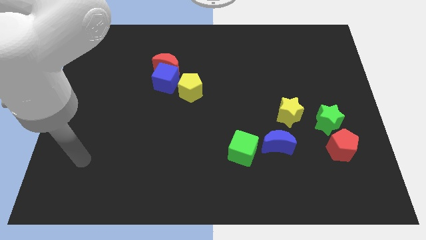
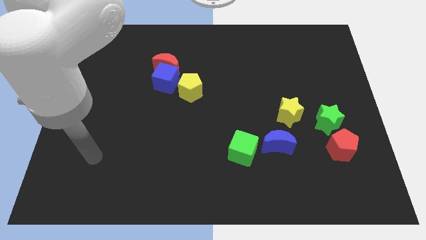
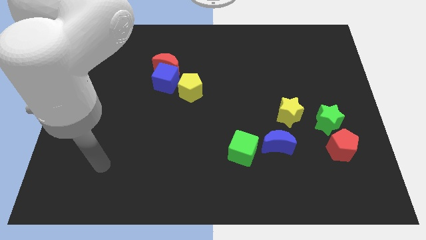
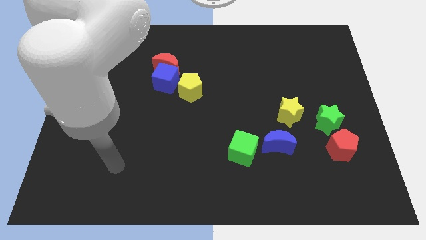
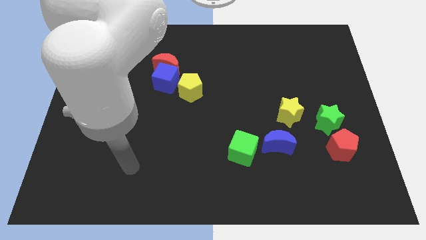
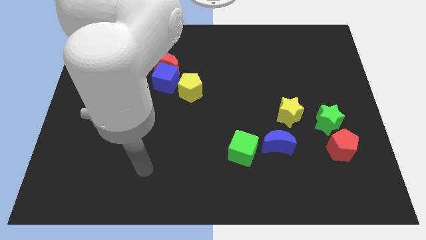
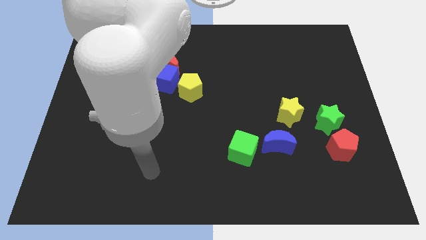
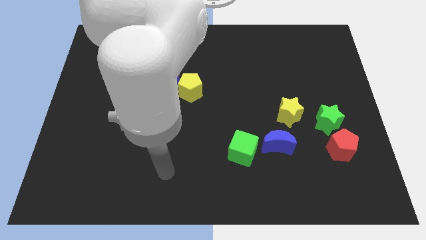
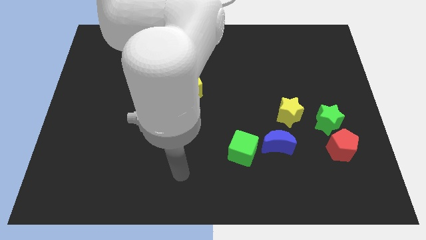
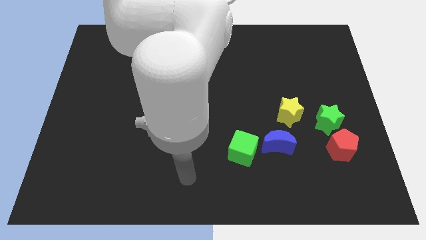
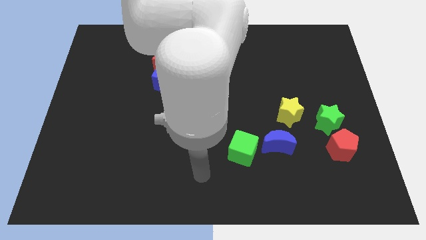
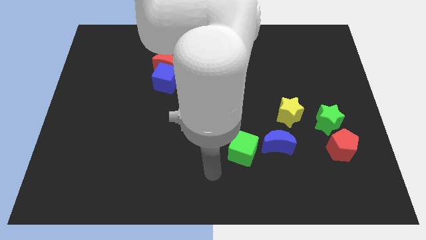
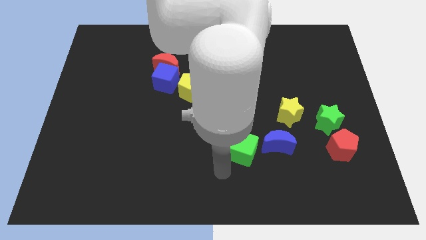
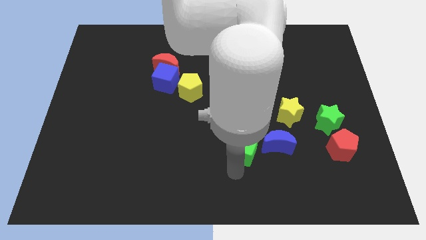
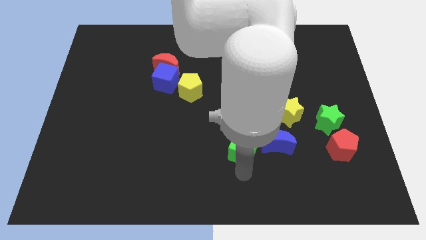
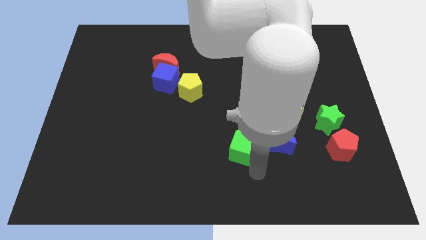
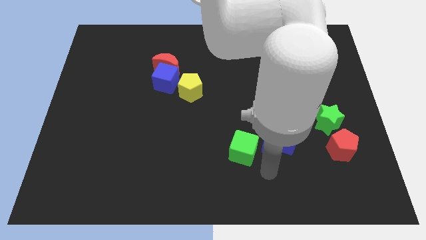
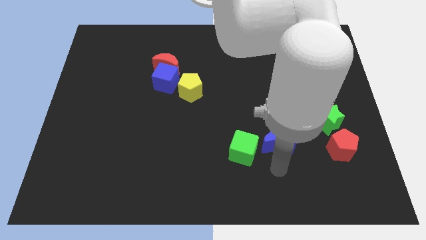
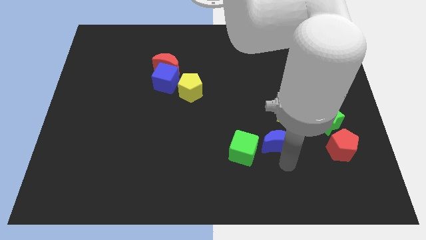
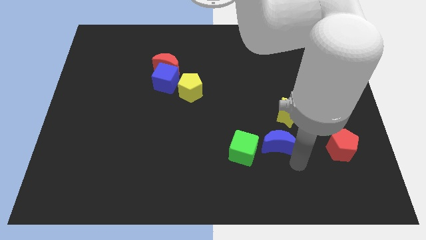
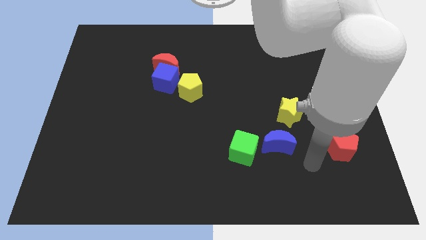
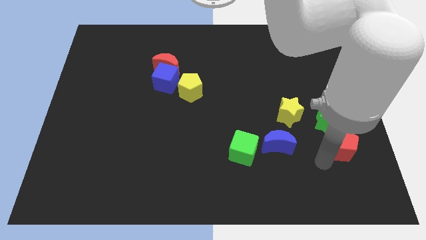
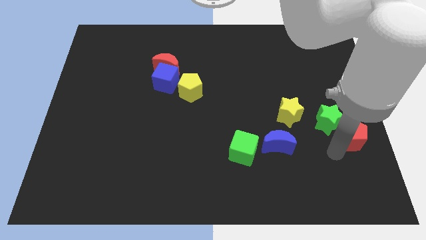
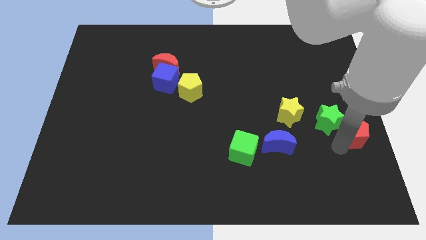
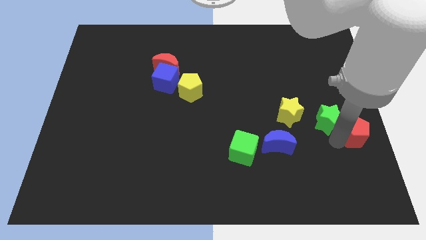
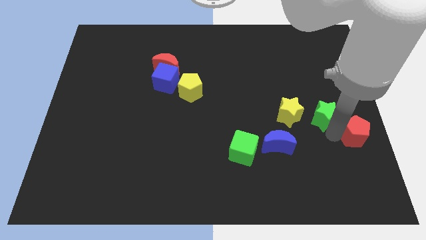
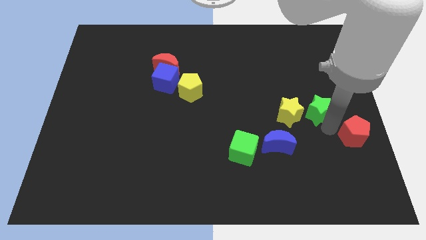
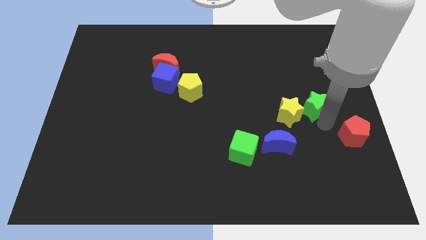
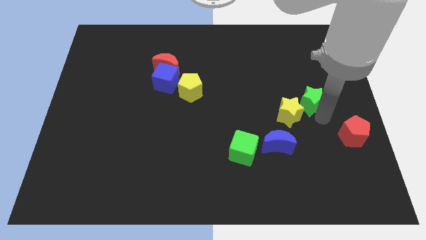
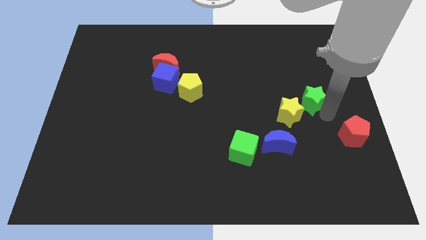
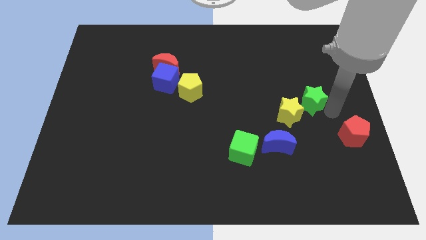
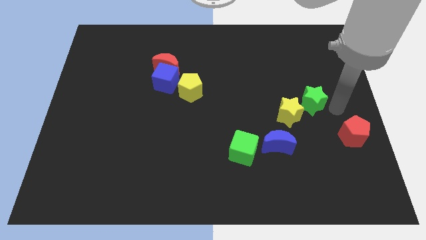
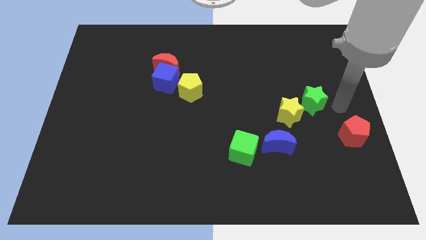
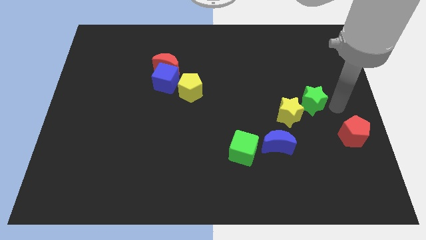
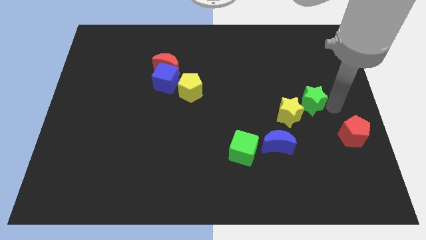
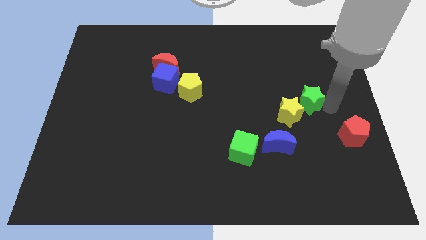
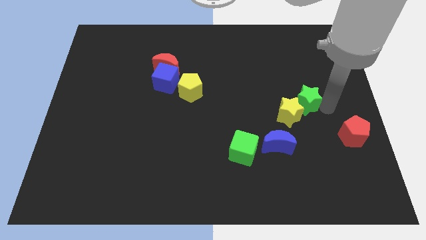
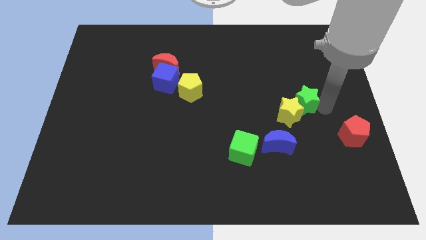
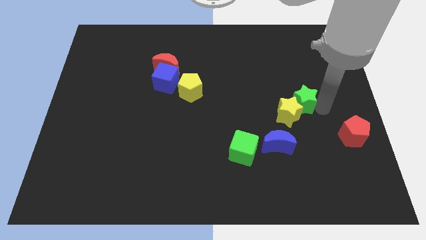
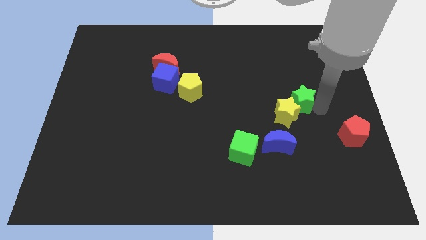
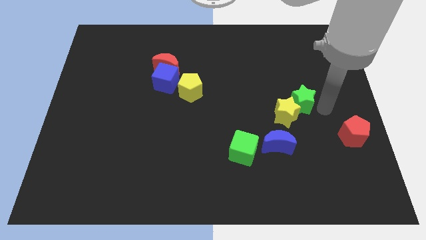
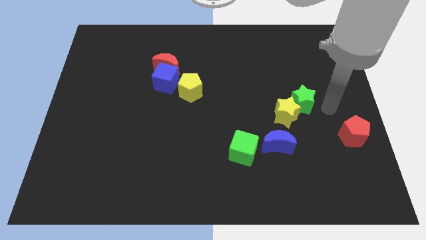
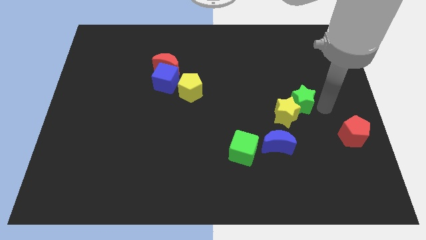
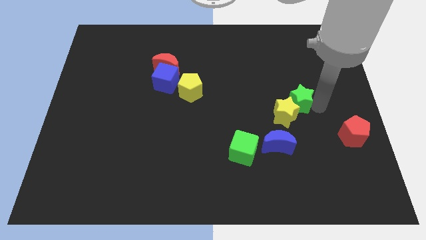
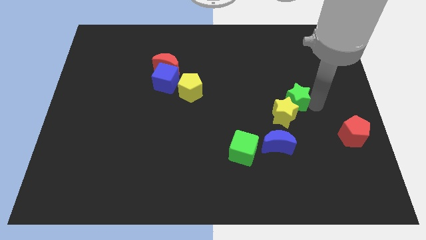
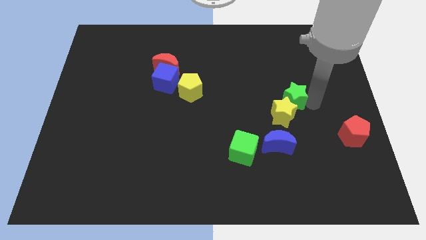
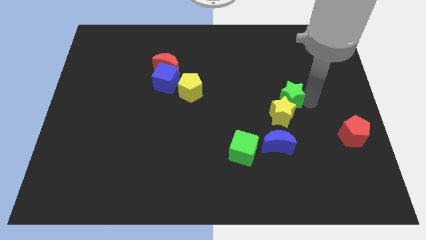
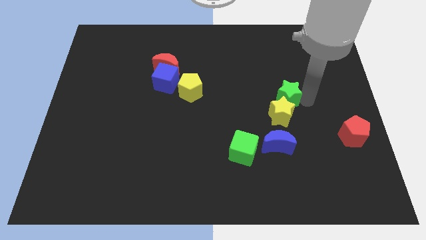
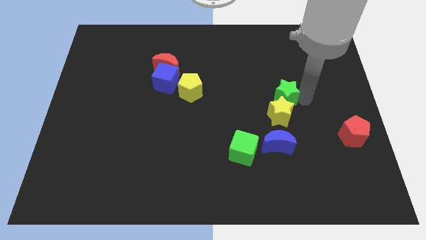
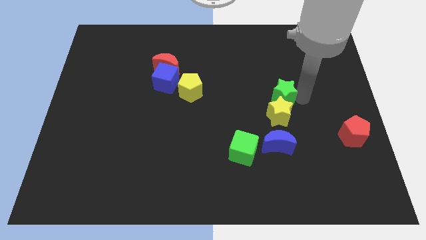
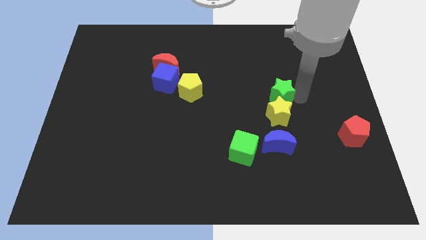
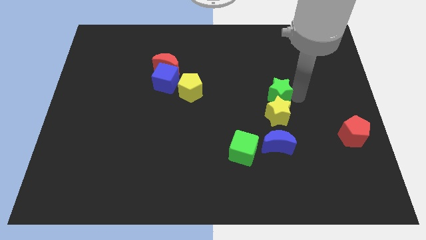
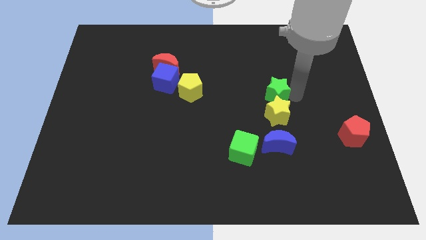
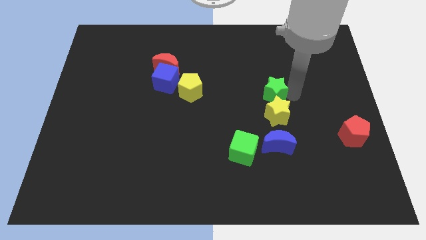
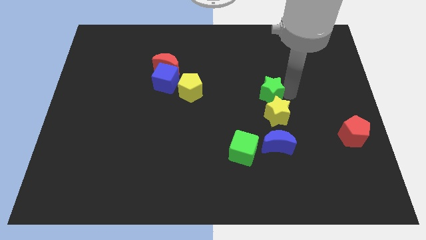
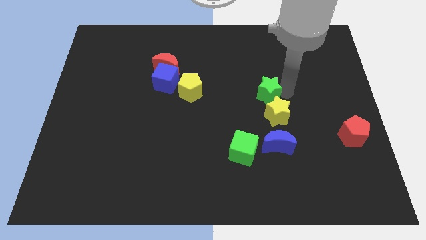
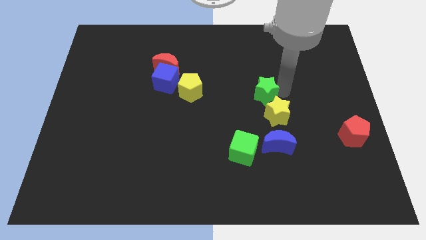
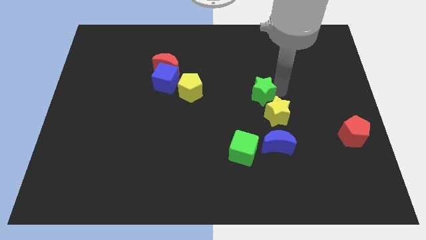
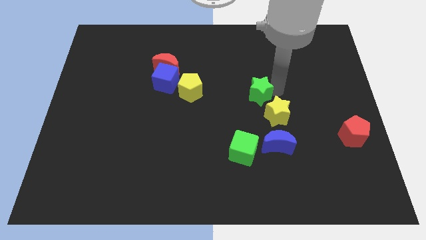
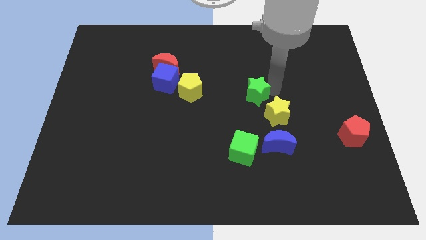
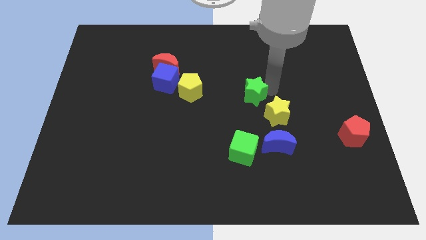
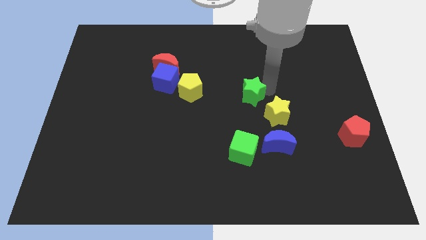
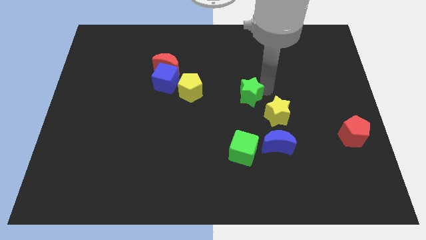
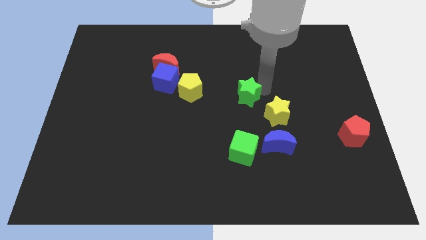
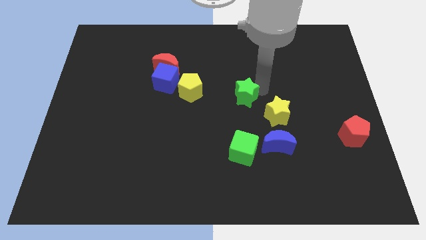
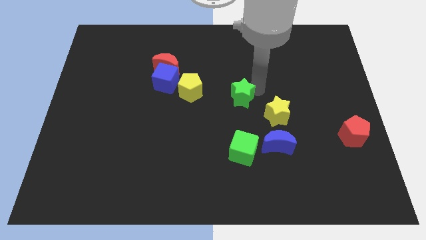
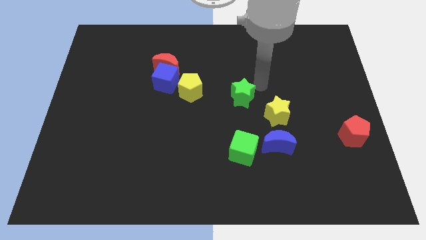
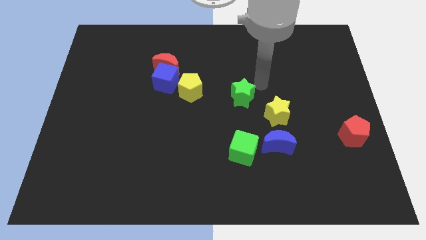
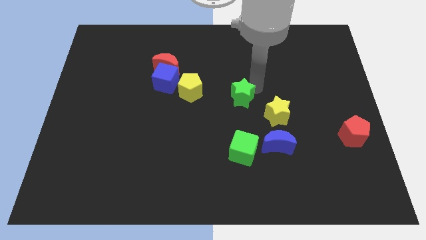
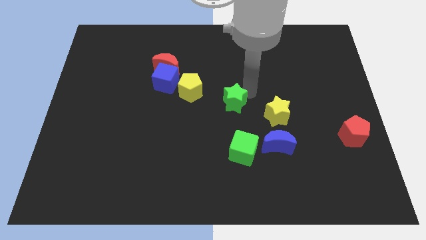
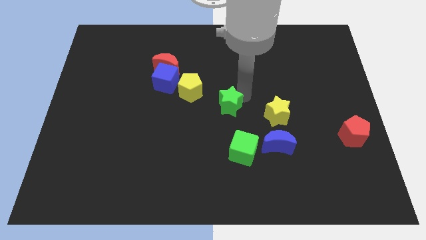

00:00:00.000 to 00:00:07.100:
slide the green star left

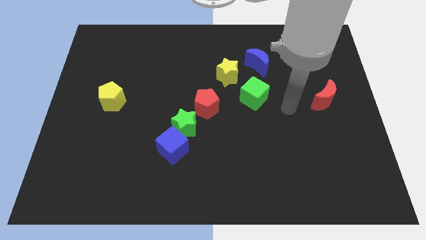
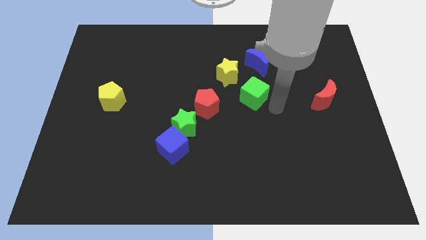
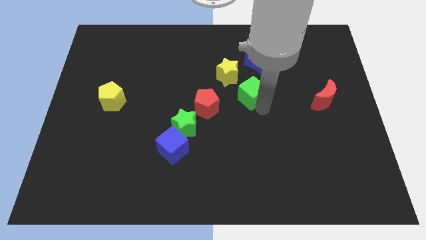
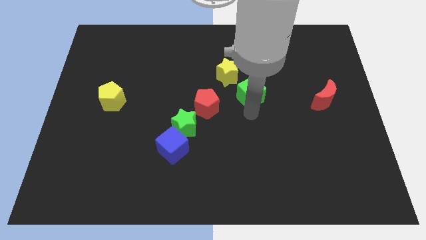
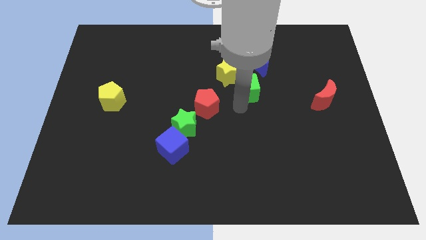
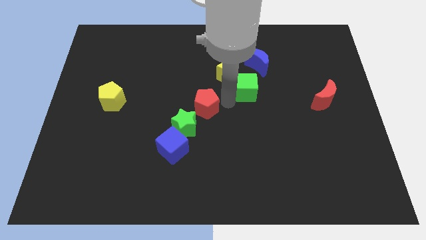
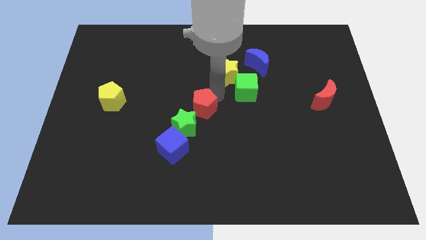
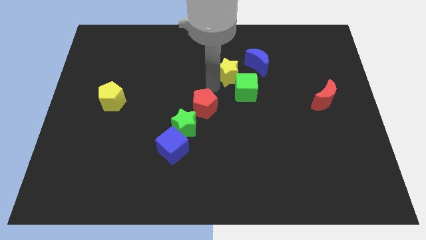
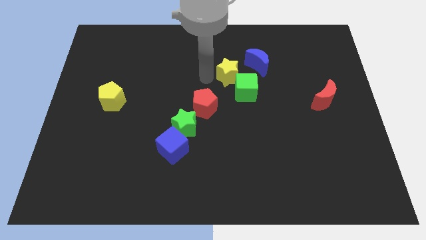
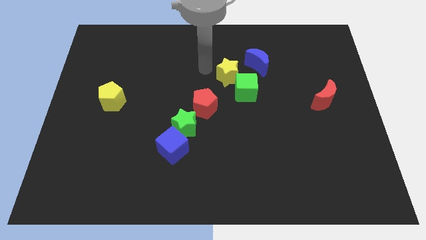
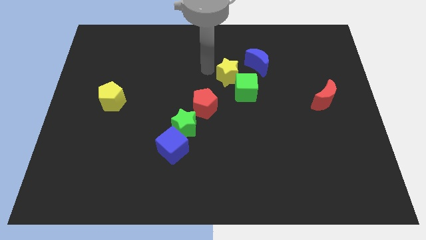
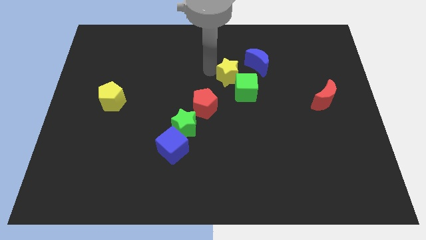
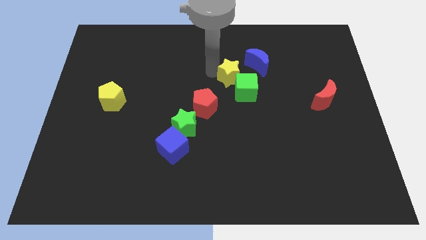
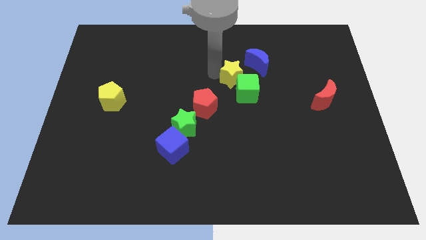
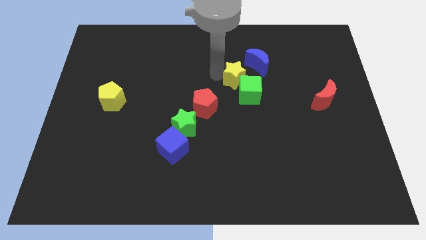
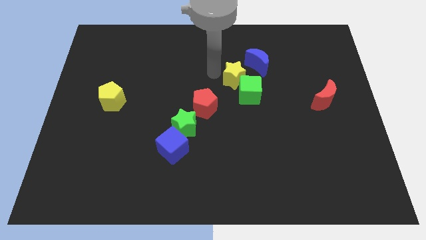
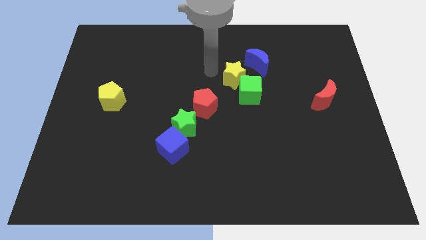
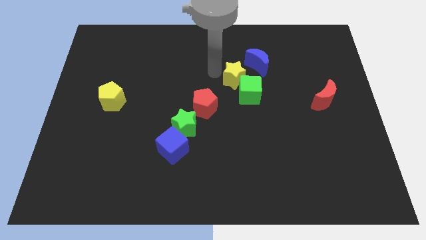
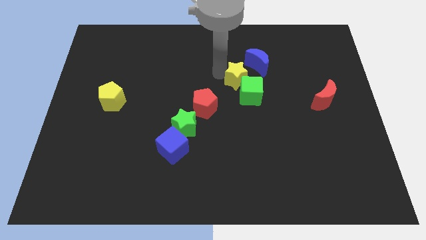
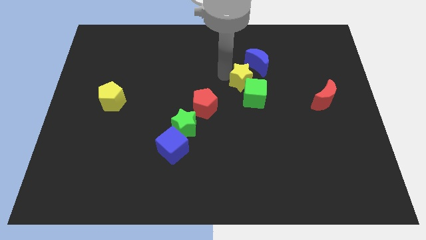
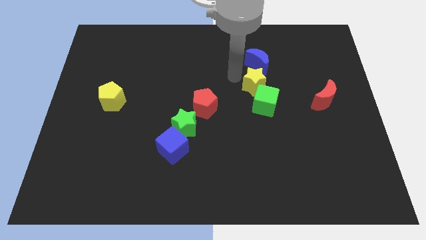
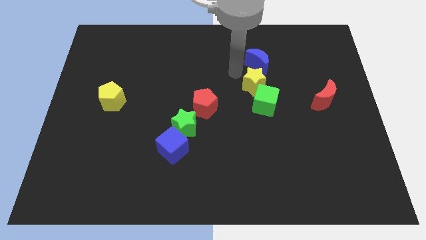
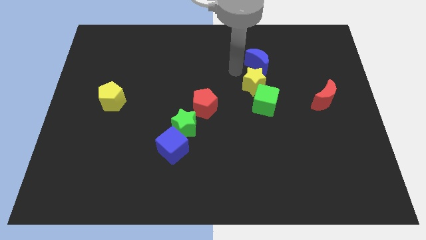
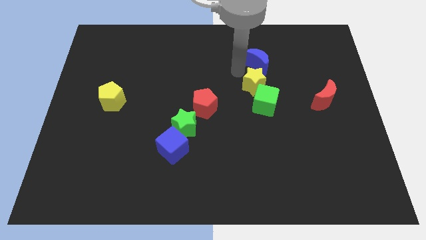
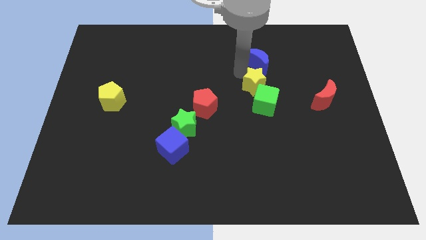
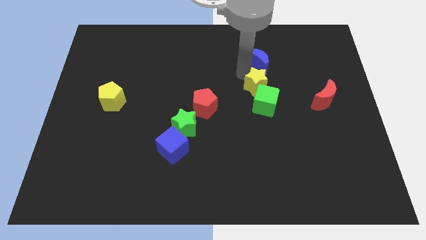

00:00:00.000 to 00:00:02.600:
slightly move the yellow star down and to the right diagonally
